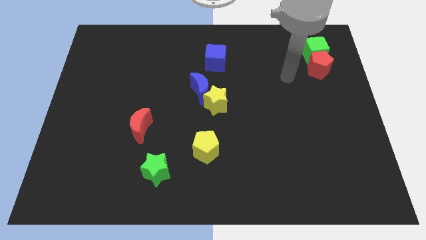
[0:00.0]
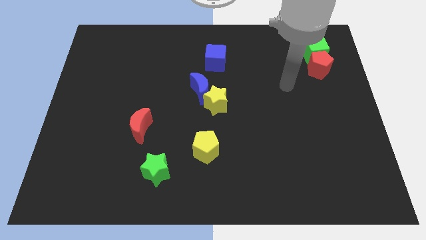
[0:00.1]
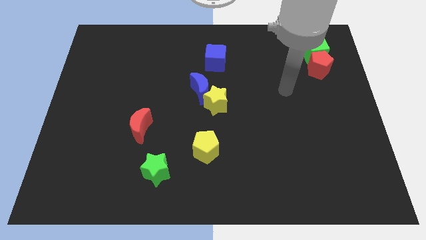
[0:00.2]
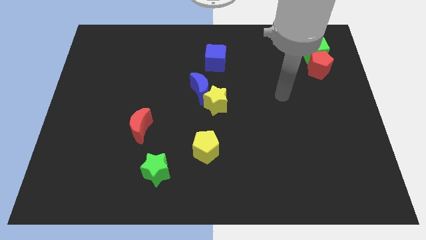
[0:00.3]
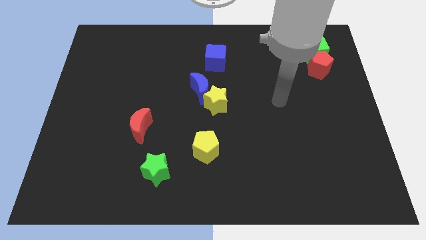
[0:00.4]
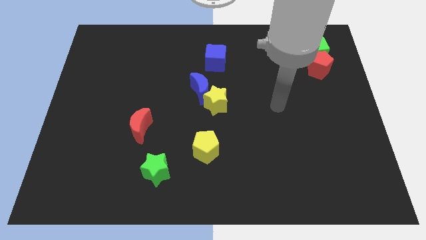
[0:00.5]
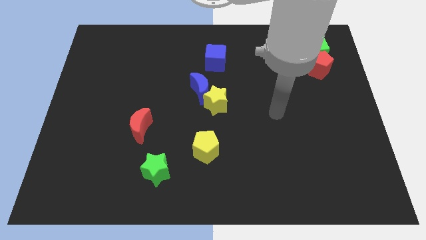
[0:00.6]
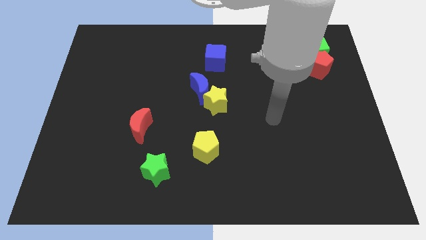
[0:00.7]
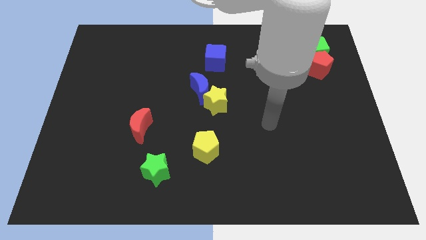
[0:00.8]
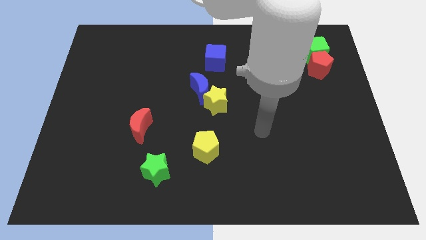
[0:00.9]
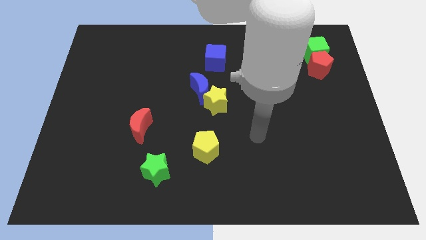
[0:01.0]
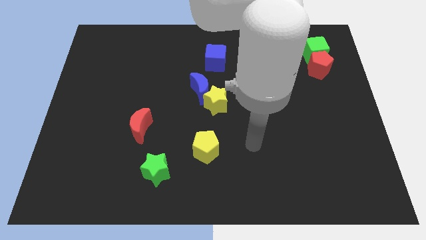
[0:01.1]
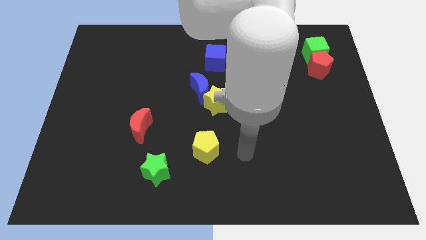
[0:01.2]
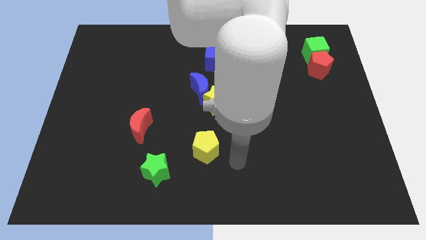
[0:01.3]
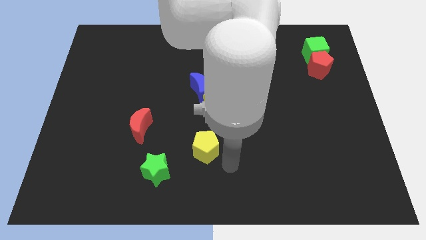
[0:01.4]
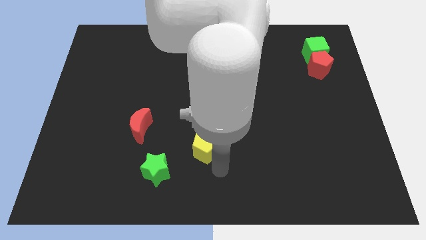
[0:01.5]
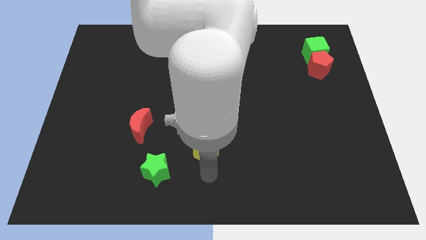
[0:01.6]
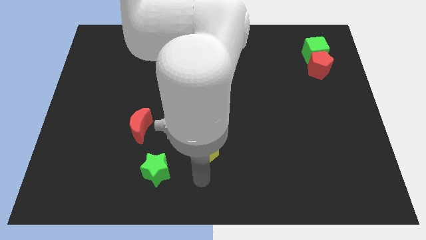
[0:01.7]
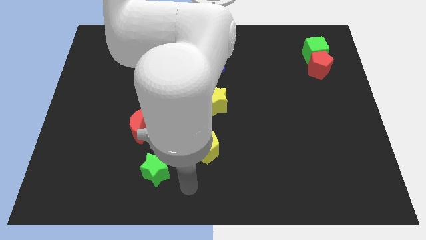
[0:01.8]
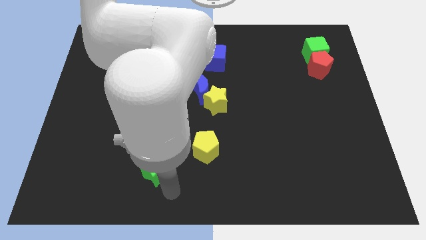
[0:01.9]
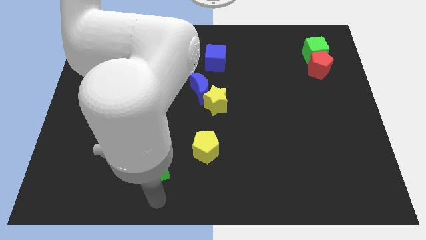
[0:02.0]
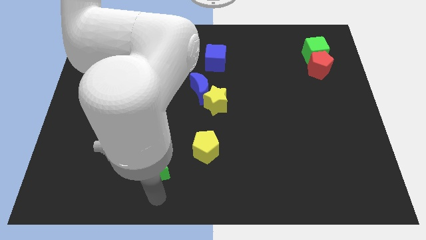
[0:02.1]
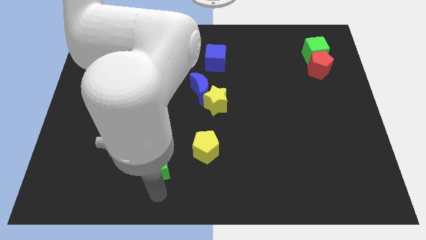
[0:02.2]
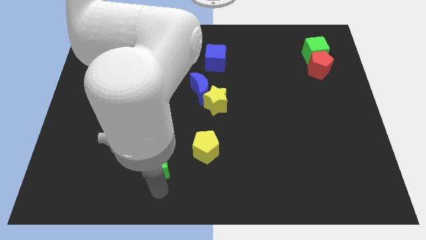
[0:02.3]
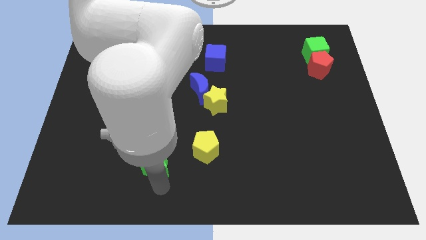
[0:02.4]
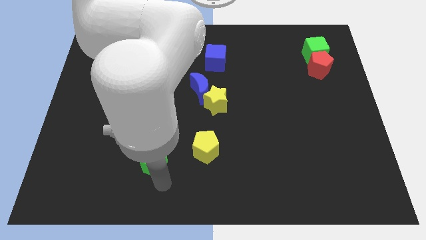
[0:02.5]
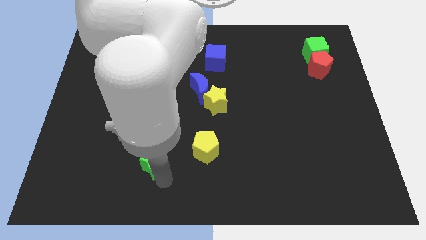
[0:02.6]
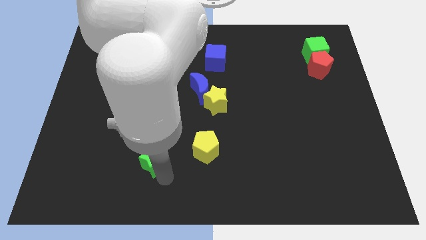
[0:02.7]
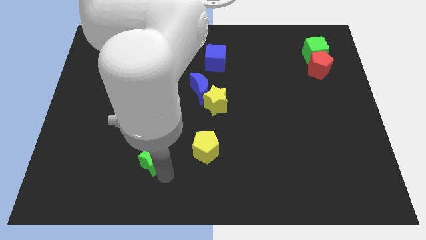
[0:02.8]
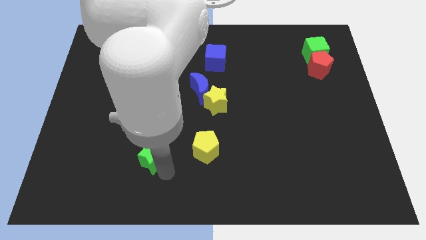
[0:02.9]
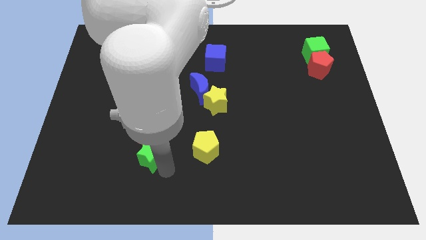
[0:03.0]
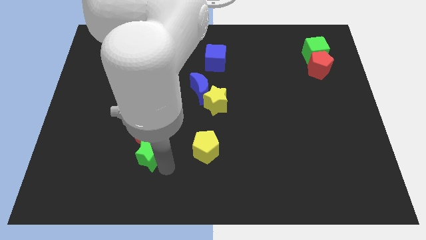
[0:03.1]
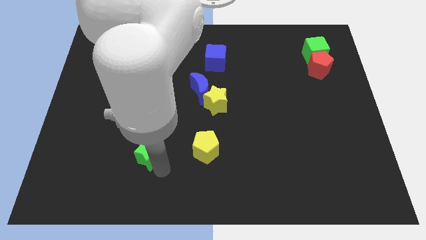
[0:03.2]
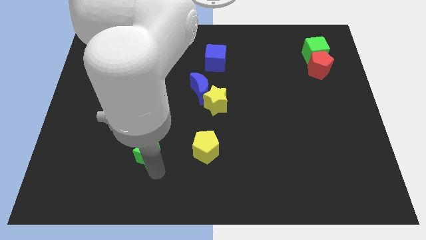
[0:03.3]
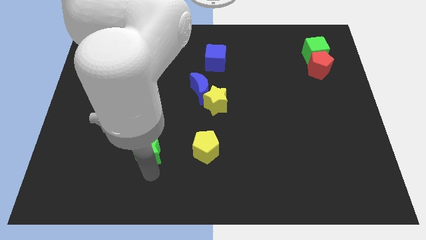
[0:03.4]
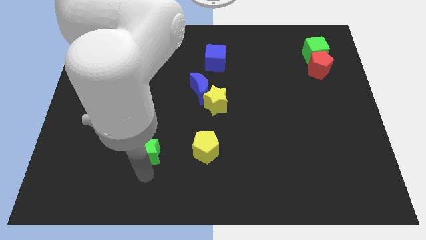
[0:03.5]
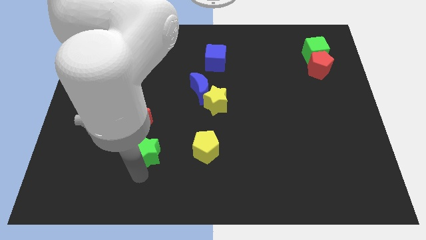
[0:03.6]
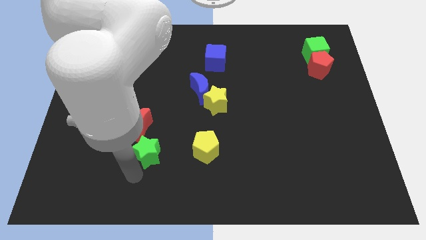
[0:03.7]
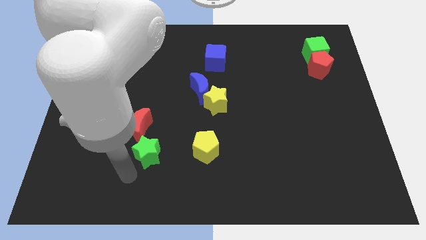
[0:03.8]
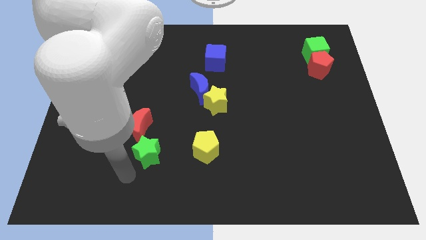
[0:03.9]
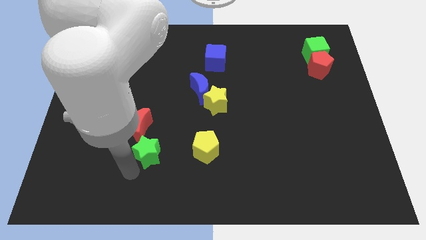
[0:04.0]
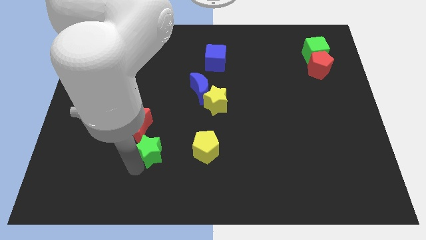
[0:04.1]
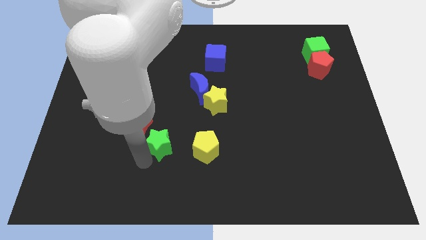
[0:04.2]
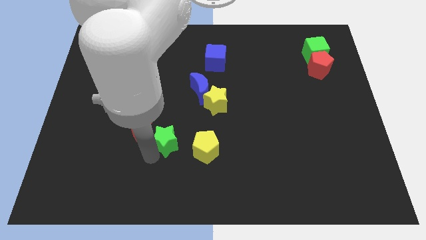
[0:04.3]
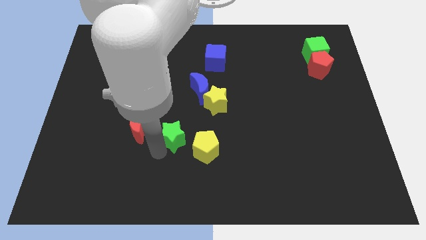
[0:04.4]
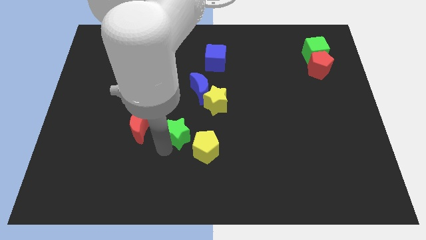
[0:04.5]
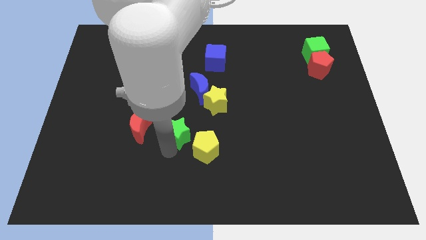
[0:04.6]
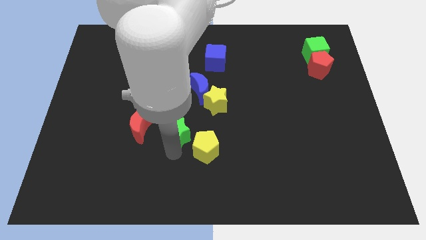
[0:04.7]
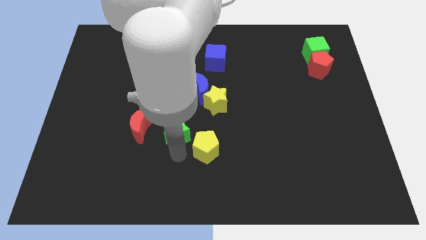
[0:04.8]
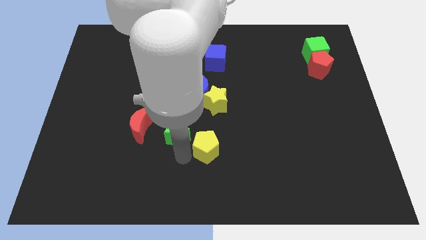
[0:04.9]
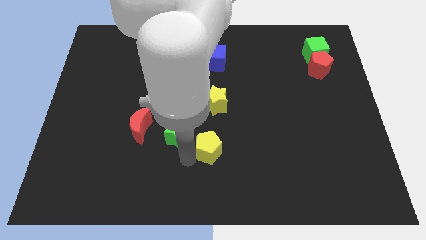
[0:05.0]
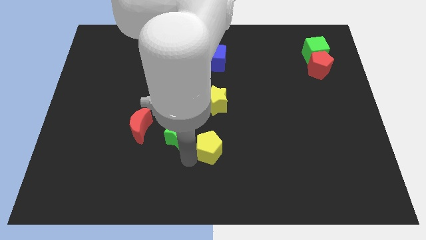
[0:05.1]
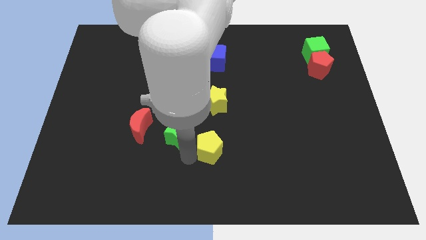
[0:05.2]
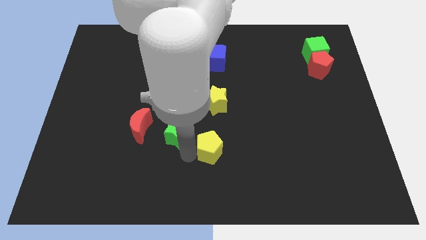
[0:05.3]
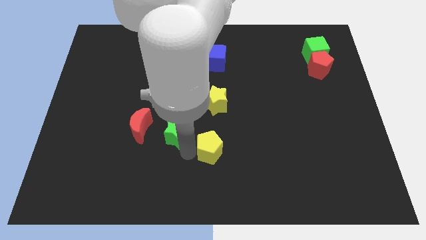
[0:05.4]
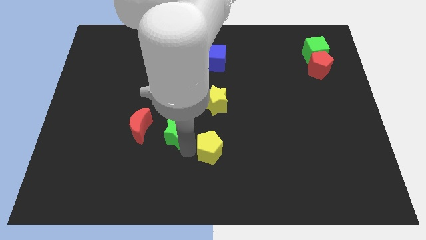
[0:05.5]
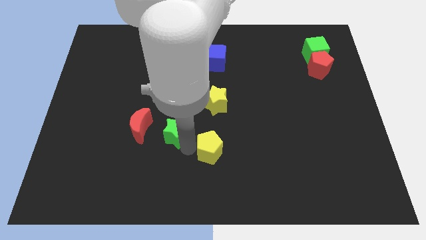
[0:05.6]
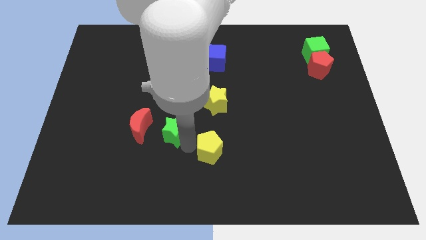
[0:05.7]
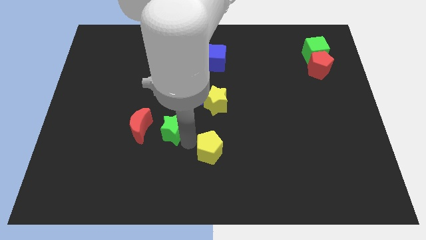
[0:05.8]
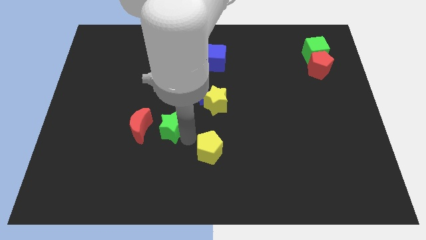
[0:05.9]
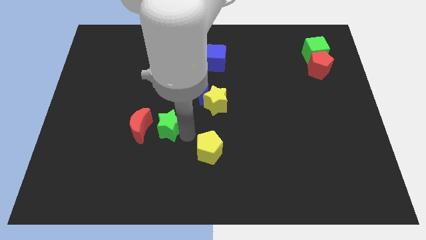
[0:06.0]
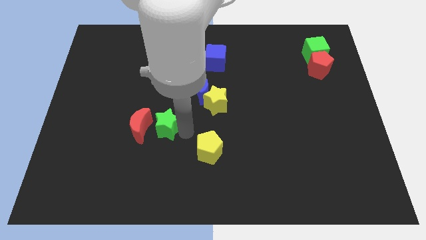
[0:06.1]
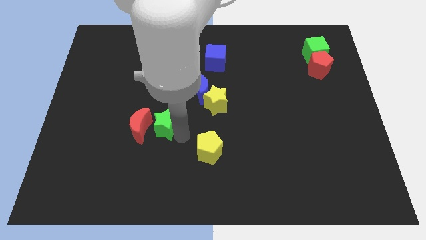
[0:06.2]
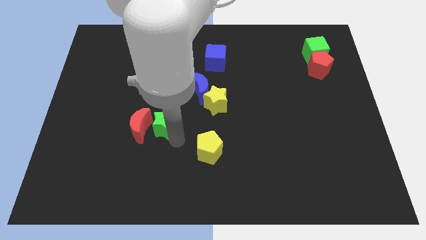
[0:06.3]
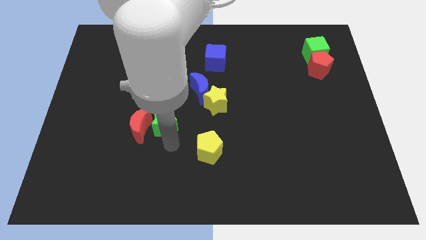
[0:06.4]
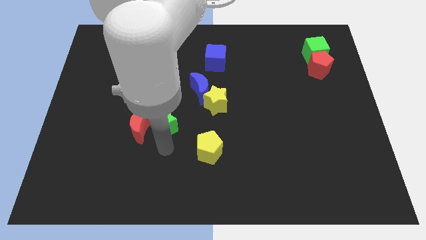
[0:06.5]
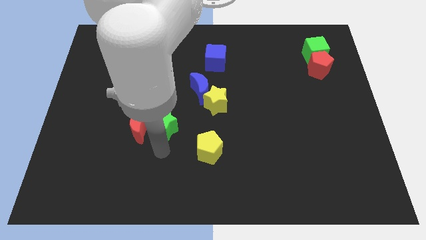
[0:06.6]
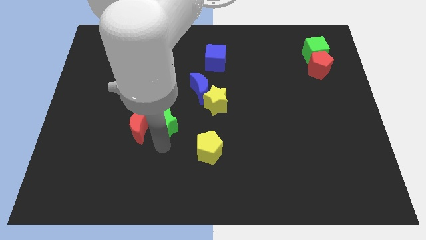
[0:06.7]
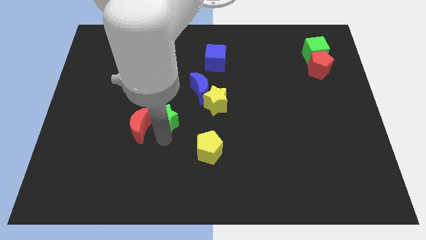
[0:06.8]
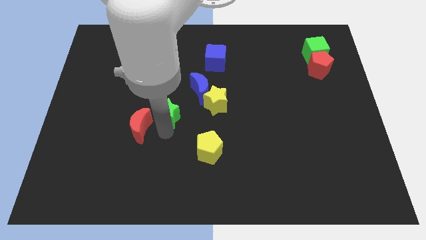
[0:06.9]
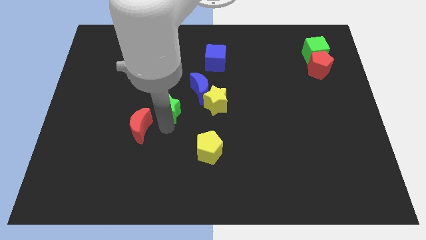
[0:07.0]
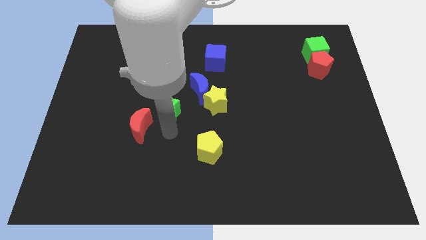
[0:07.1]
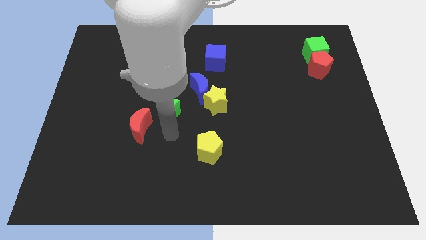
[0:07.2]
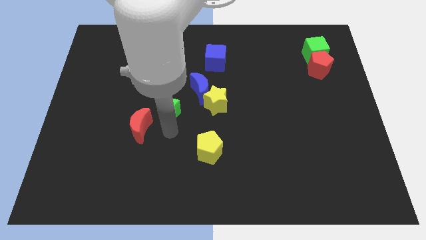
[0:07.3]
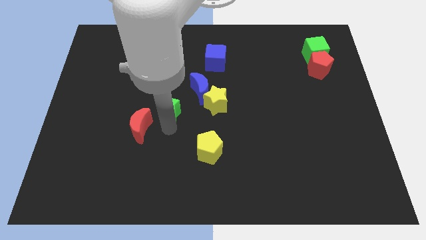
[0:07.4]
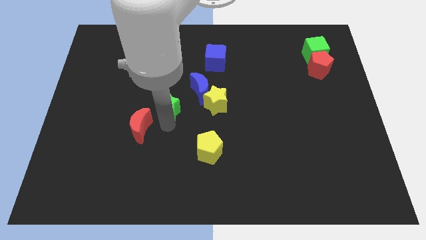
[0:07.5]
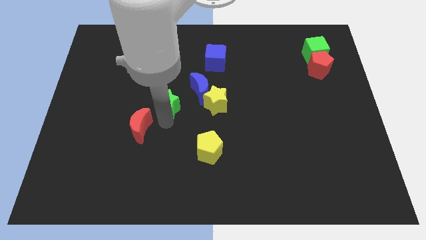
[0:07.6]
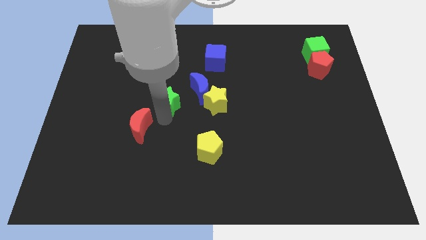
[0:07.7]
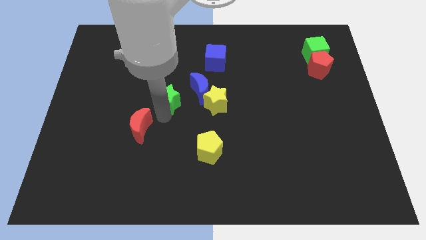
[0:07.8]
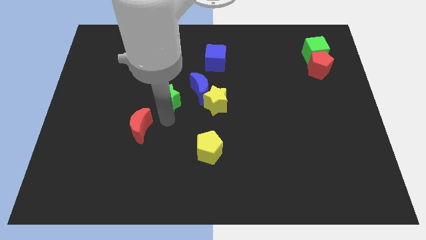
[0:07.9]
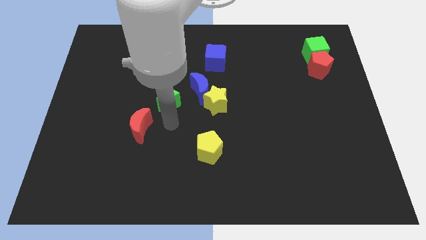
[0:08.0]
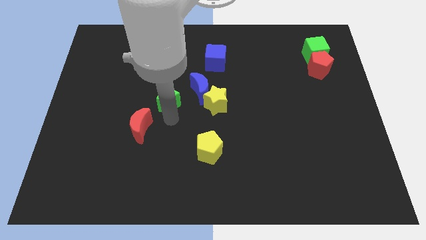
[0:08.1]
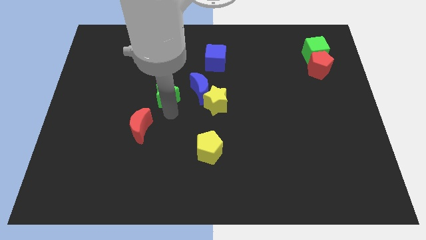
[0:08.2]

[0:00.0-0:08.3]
move the green star upwards
